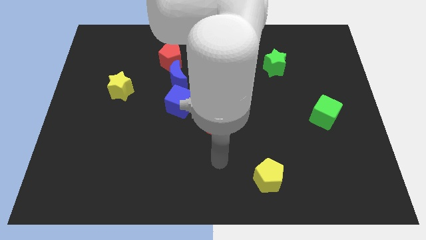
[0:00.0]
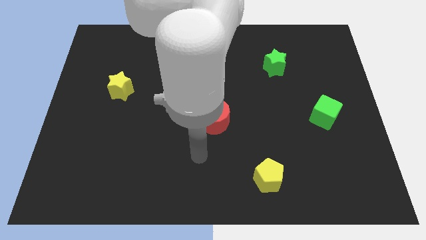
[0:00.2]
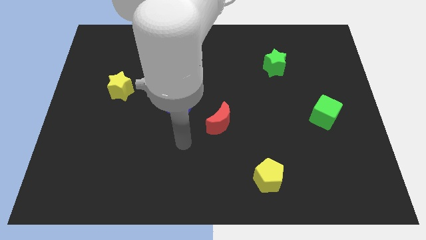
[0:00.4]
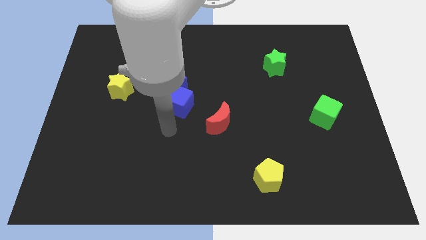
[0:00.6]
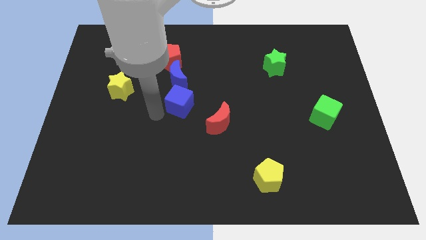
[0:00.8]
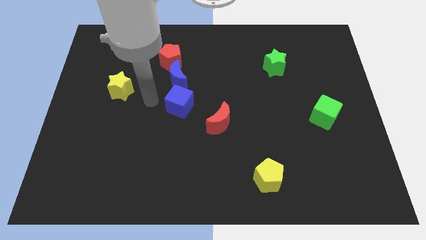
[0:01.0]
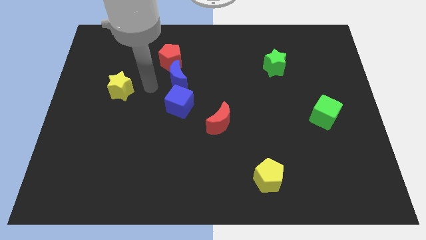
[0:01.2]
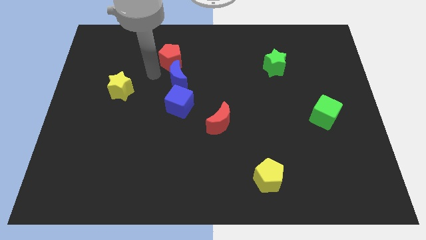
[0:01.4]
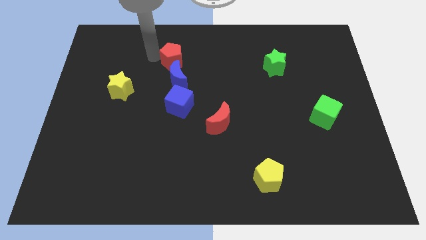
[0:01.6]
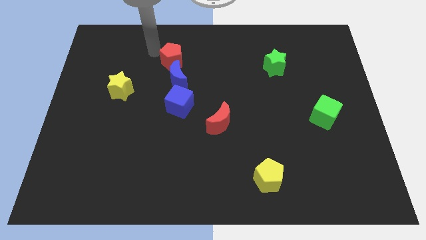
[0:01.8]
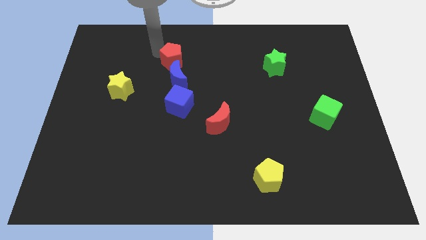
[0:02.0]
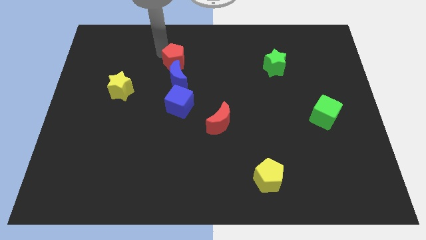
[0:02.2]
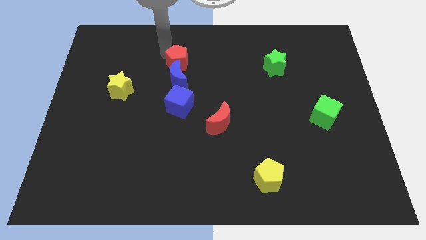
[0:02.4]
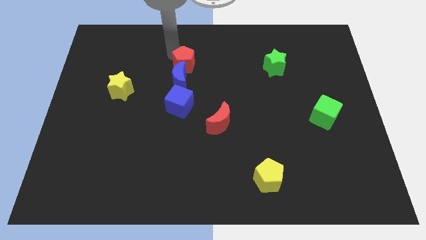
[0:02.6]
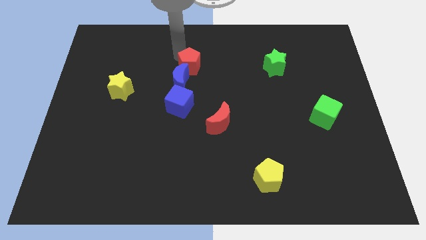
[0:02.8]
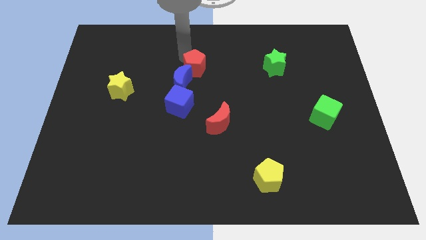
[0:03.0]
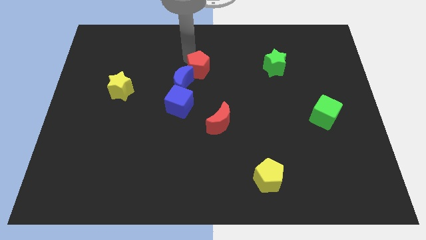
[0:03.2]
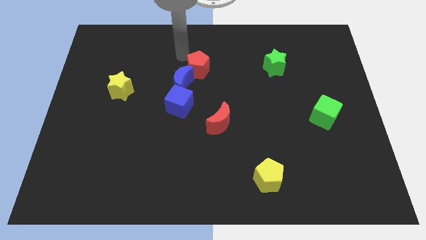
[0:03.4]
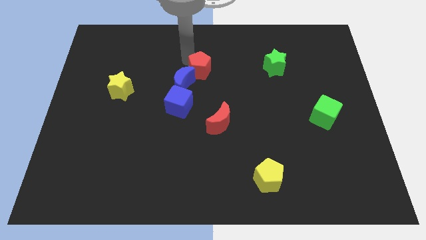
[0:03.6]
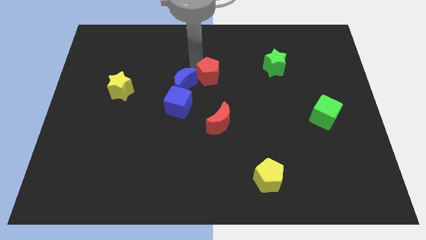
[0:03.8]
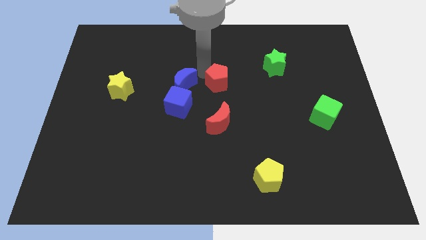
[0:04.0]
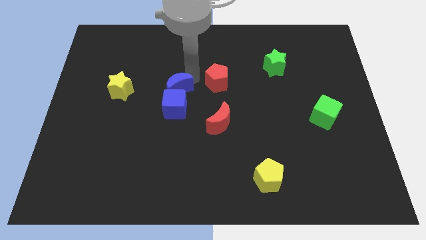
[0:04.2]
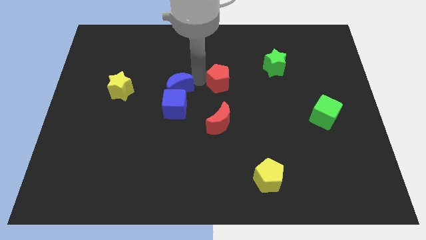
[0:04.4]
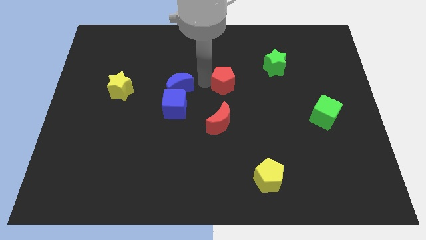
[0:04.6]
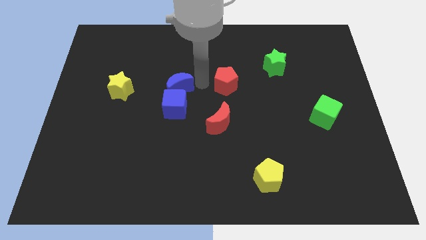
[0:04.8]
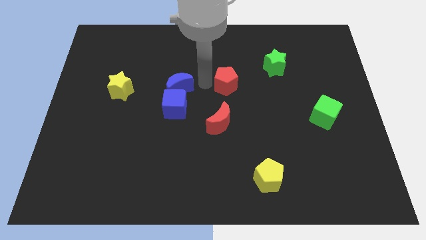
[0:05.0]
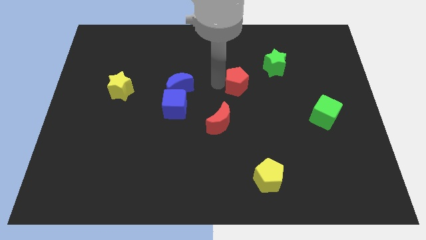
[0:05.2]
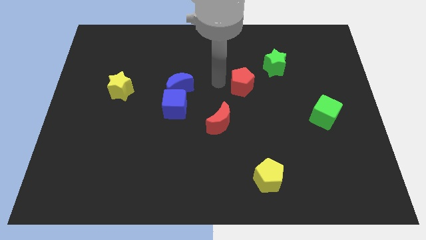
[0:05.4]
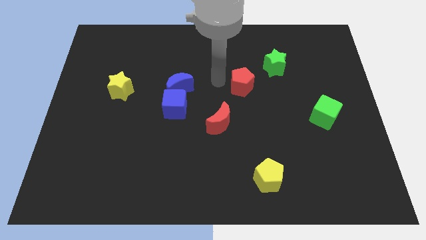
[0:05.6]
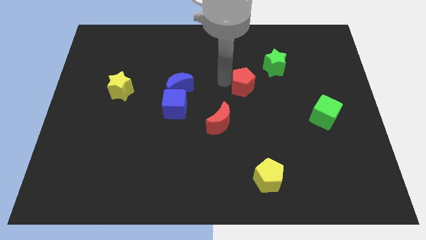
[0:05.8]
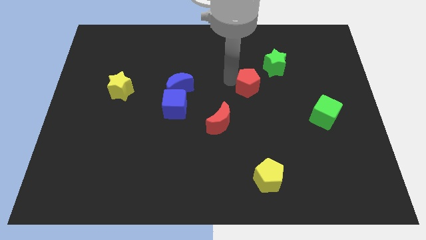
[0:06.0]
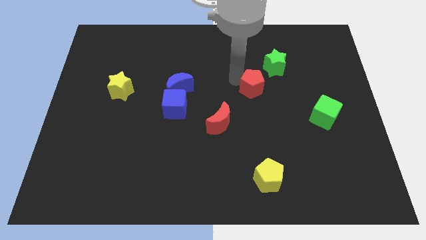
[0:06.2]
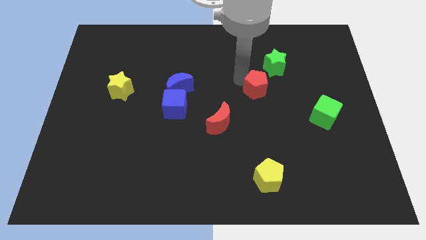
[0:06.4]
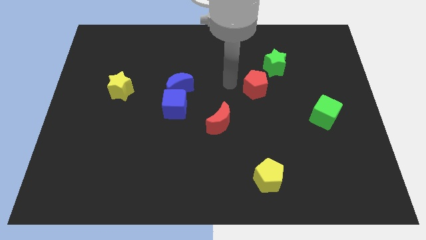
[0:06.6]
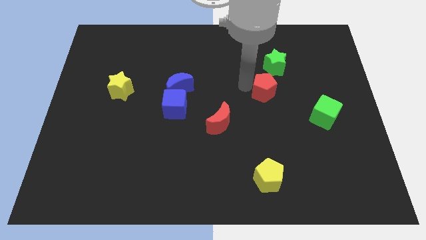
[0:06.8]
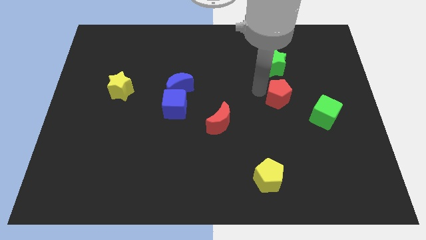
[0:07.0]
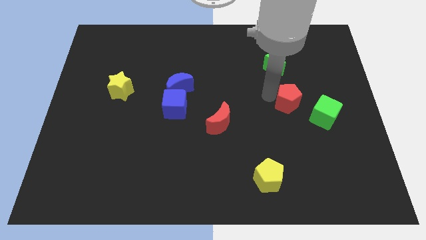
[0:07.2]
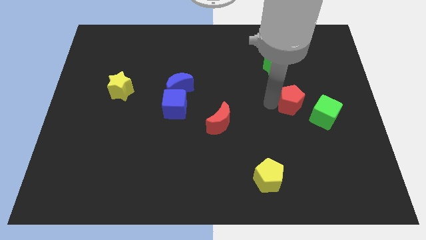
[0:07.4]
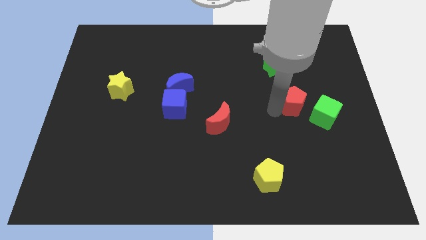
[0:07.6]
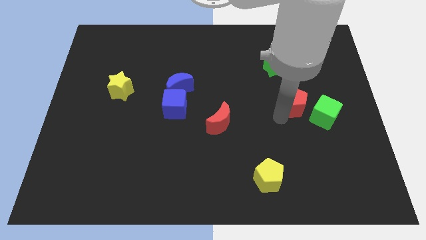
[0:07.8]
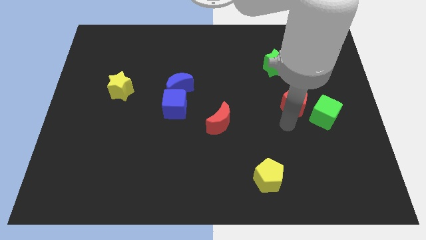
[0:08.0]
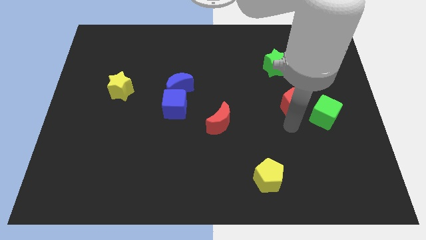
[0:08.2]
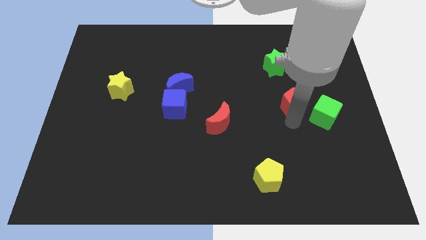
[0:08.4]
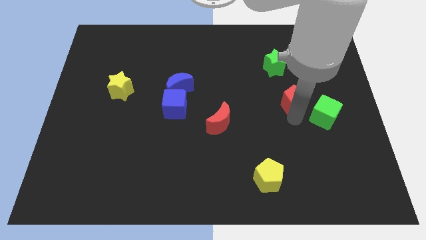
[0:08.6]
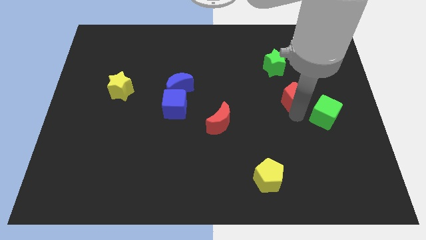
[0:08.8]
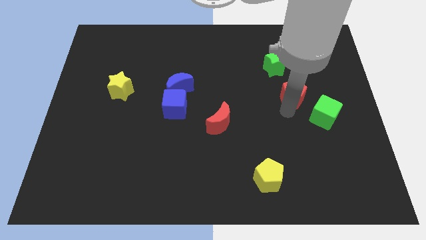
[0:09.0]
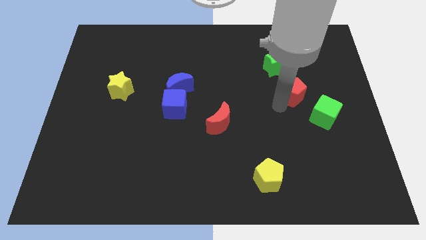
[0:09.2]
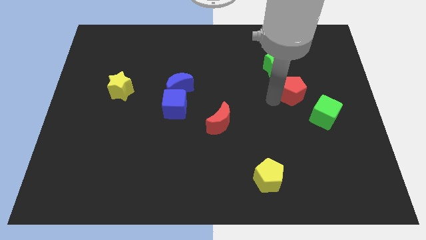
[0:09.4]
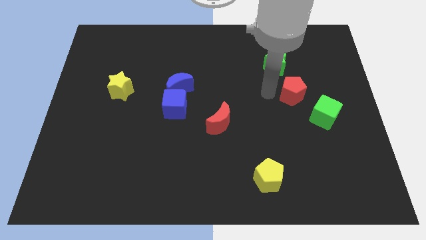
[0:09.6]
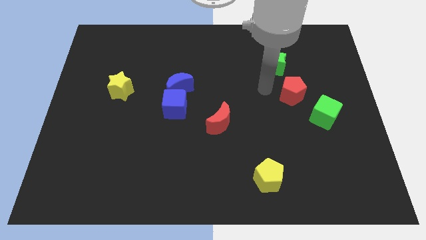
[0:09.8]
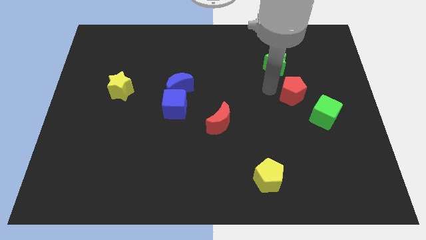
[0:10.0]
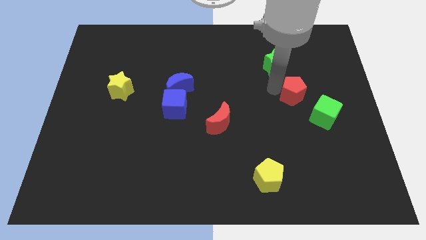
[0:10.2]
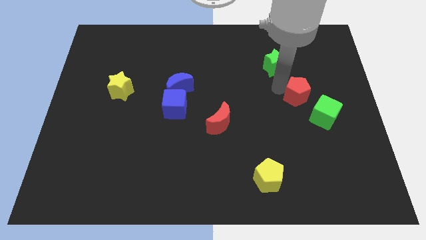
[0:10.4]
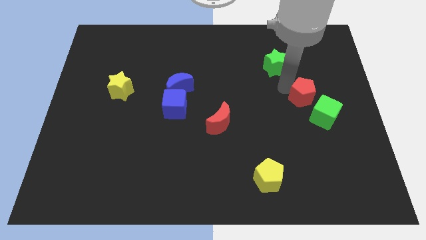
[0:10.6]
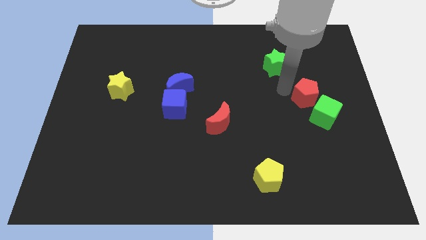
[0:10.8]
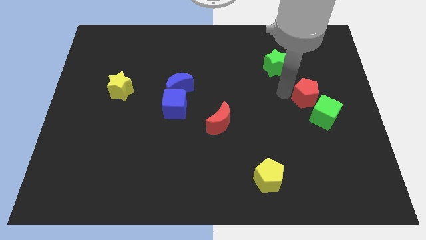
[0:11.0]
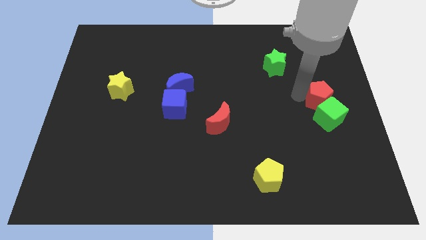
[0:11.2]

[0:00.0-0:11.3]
move the red pentagon to the right side of the board
